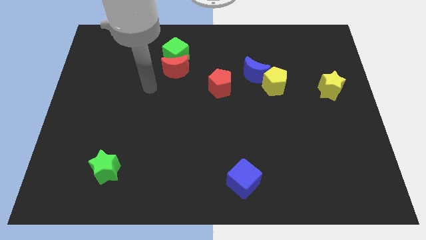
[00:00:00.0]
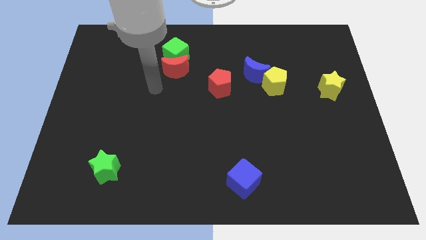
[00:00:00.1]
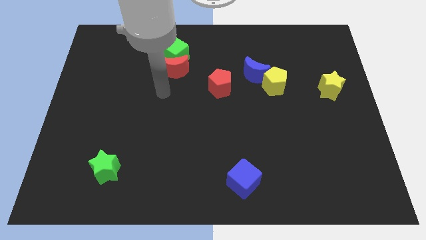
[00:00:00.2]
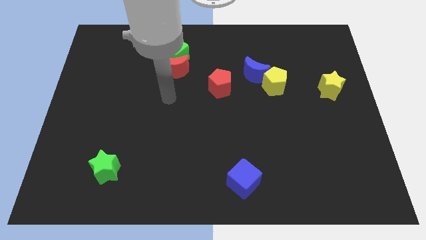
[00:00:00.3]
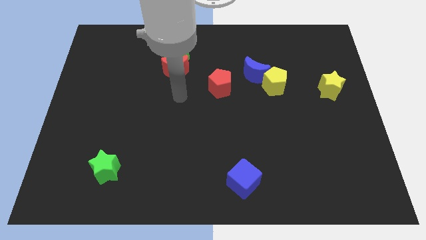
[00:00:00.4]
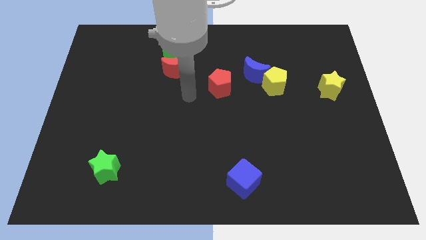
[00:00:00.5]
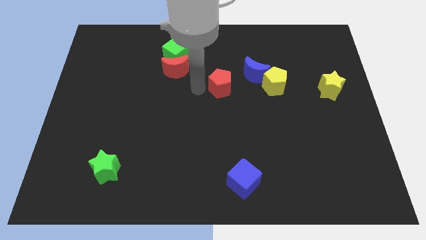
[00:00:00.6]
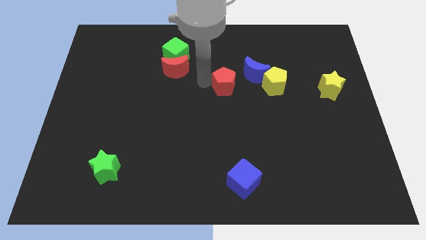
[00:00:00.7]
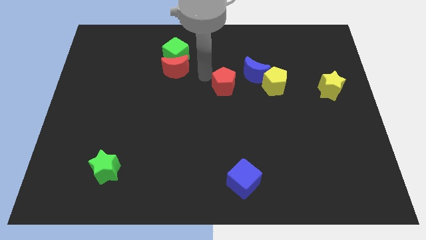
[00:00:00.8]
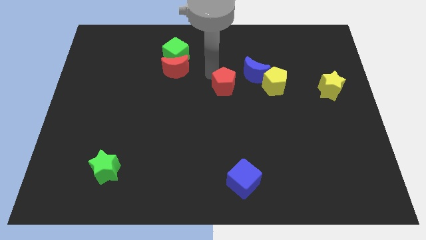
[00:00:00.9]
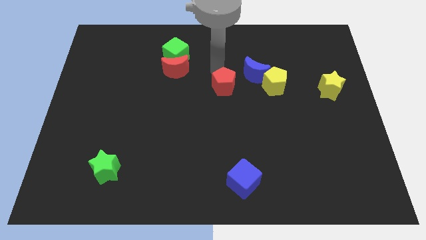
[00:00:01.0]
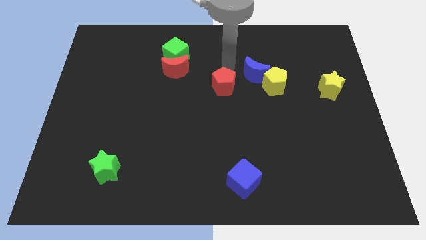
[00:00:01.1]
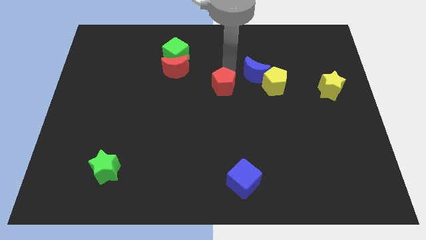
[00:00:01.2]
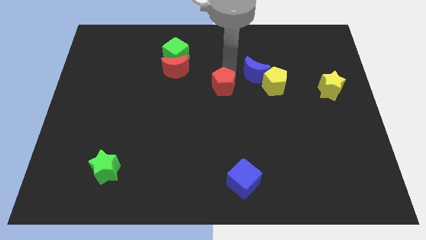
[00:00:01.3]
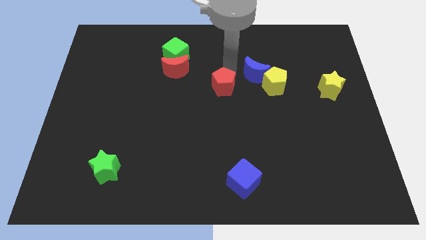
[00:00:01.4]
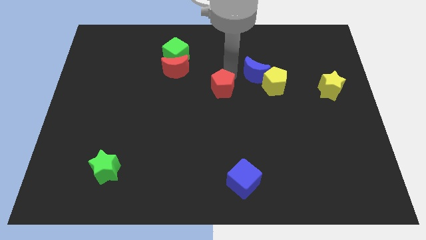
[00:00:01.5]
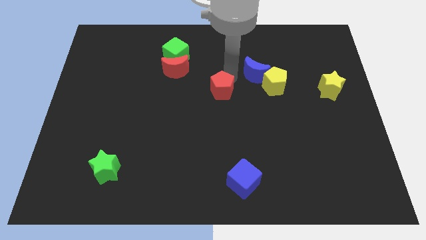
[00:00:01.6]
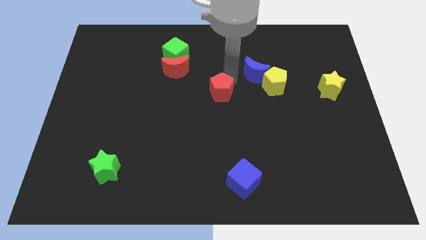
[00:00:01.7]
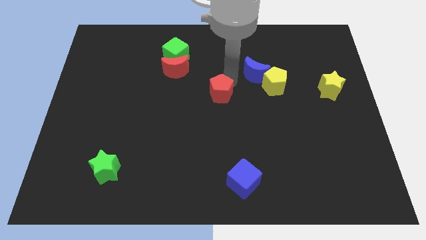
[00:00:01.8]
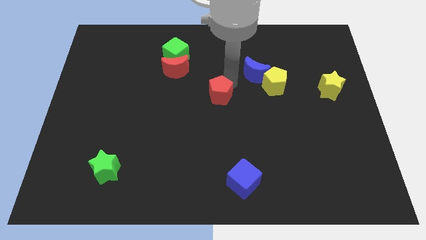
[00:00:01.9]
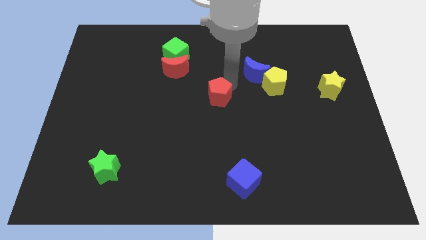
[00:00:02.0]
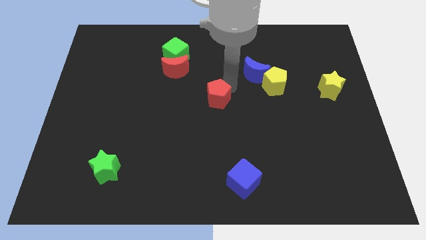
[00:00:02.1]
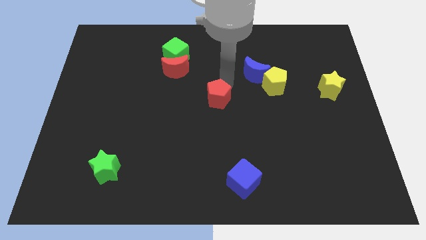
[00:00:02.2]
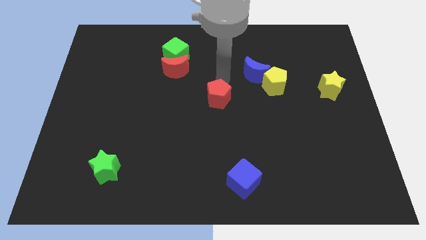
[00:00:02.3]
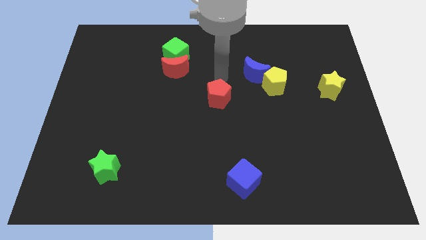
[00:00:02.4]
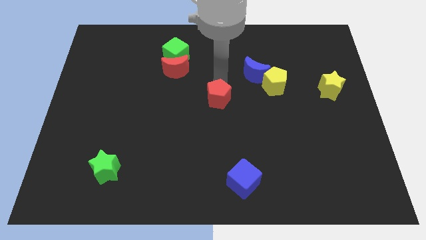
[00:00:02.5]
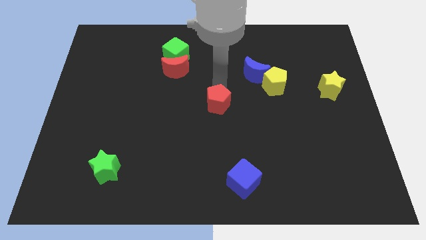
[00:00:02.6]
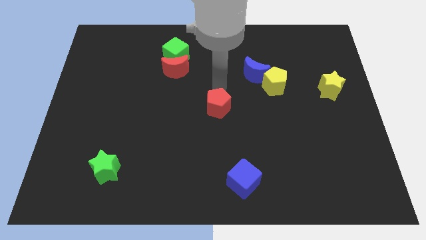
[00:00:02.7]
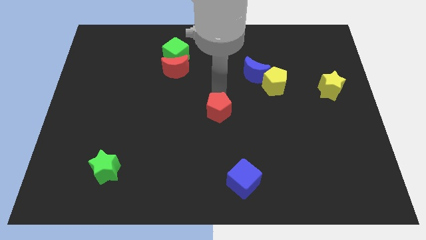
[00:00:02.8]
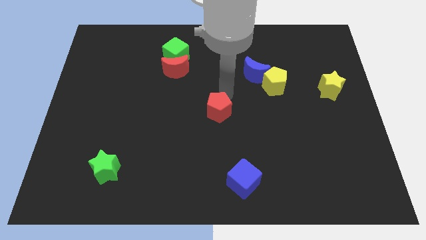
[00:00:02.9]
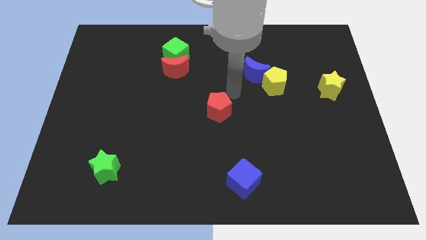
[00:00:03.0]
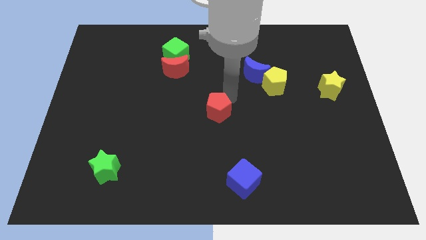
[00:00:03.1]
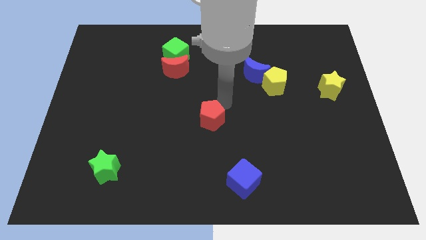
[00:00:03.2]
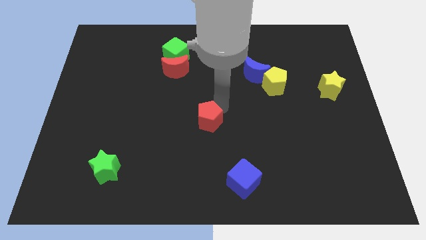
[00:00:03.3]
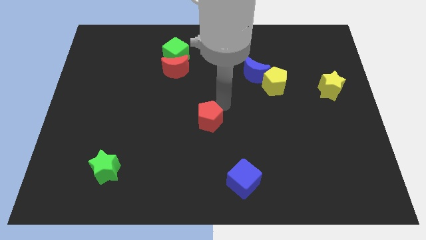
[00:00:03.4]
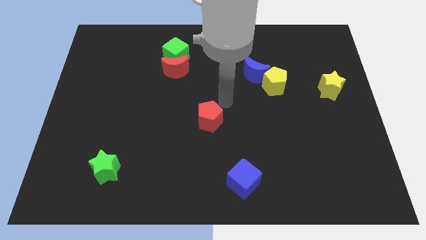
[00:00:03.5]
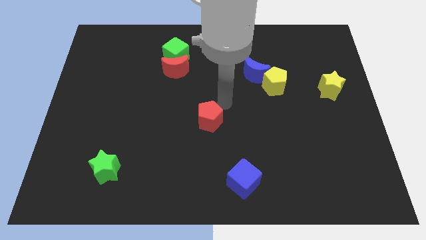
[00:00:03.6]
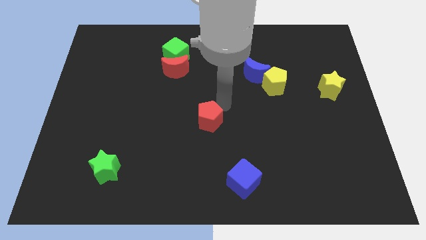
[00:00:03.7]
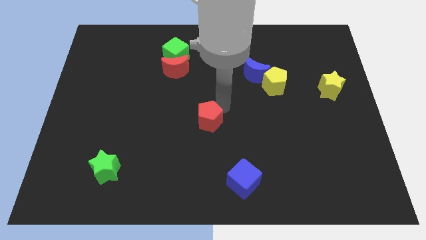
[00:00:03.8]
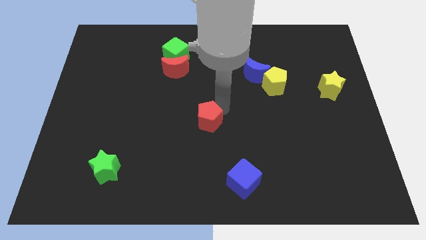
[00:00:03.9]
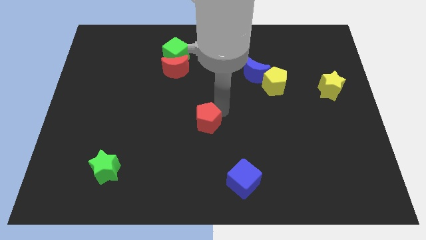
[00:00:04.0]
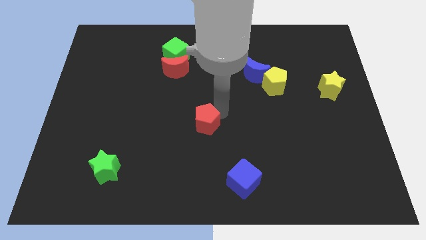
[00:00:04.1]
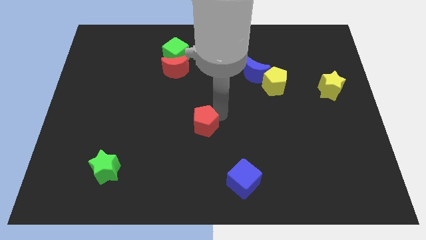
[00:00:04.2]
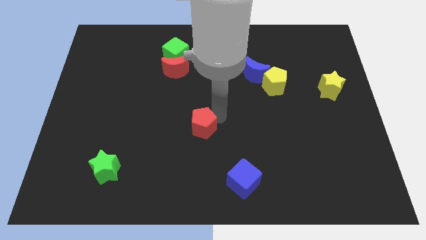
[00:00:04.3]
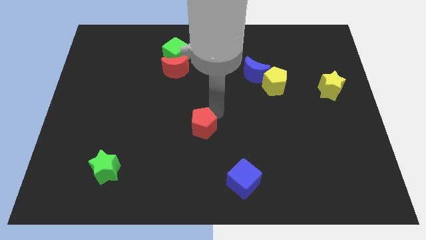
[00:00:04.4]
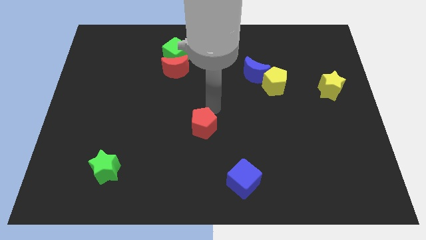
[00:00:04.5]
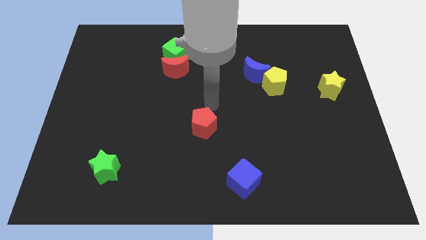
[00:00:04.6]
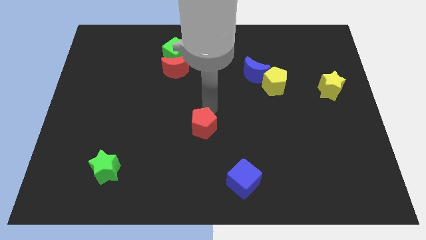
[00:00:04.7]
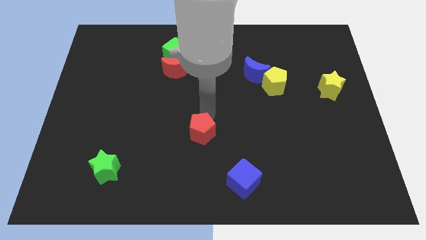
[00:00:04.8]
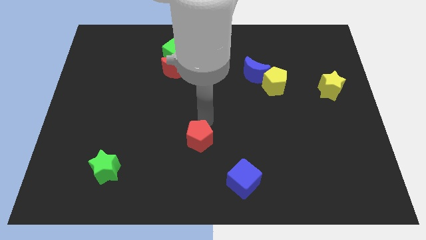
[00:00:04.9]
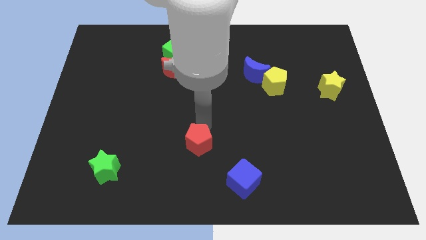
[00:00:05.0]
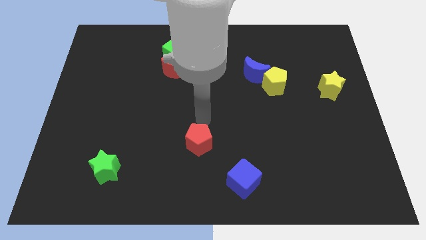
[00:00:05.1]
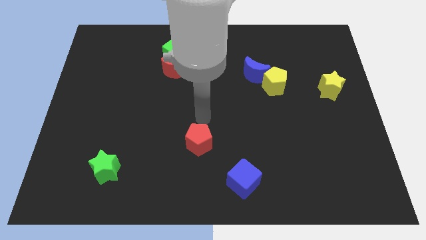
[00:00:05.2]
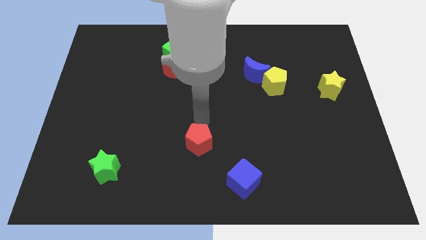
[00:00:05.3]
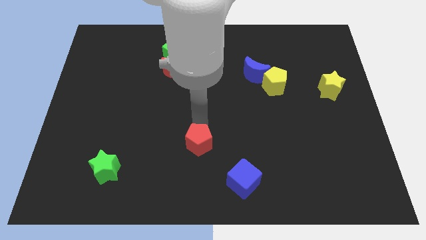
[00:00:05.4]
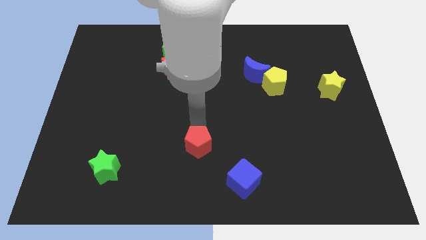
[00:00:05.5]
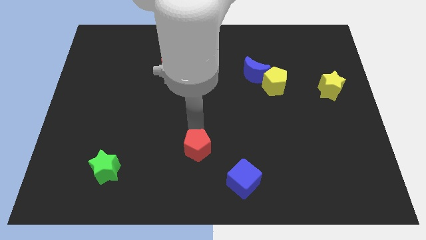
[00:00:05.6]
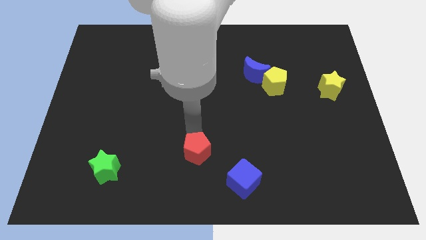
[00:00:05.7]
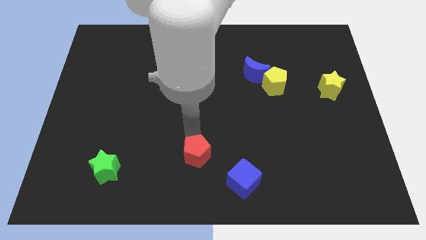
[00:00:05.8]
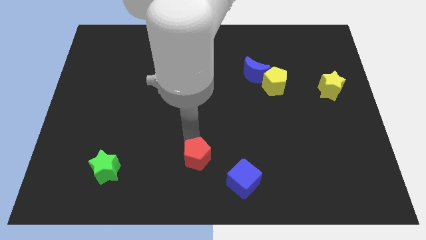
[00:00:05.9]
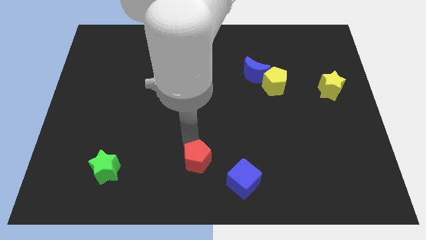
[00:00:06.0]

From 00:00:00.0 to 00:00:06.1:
slide the red pentagon to the left of the blue cube

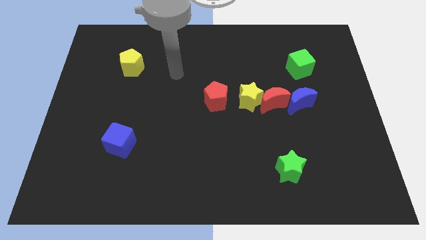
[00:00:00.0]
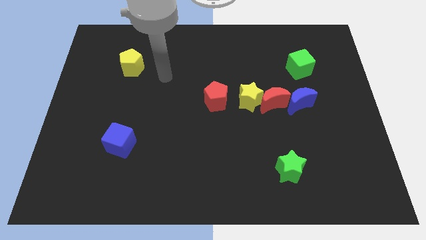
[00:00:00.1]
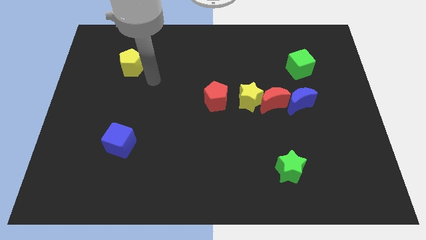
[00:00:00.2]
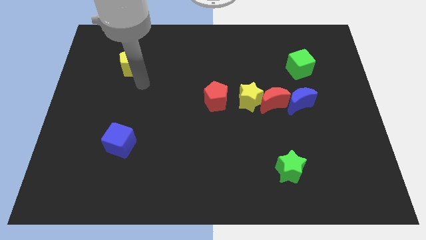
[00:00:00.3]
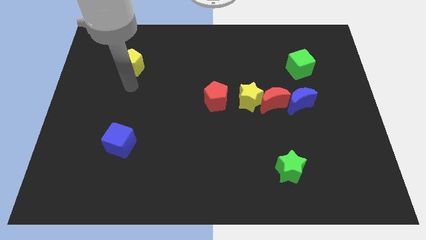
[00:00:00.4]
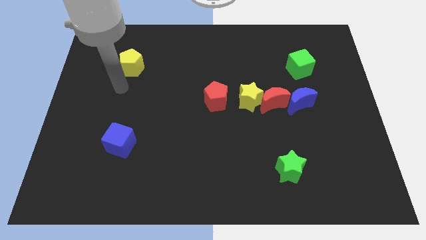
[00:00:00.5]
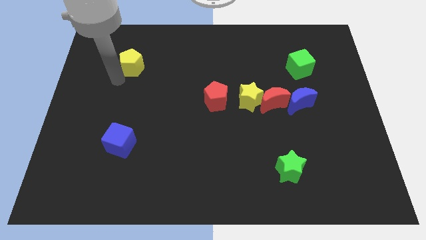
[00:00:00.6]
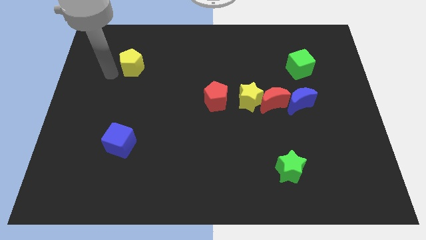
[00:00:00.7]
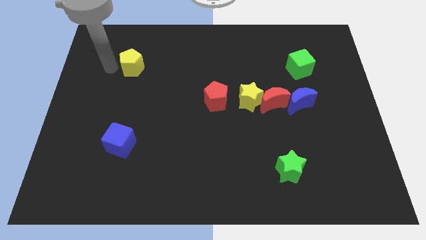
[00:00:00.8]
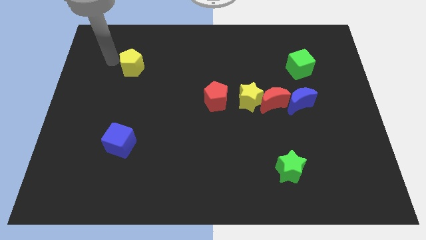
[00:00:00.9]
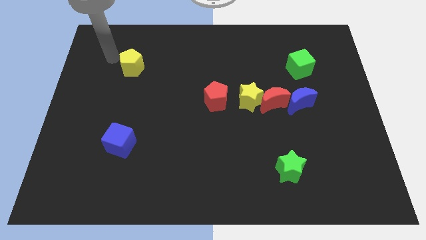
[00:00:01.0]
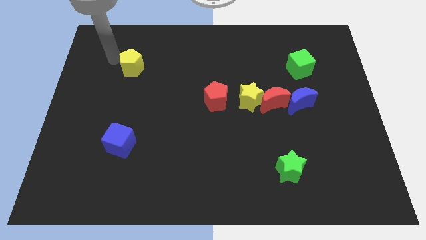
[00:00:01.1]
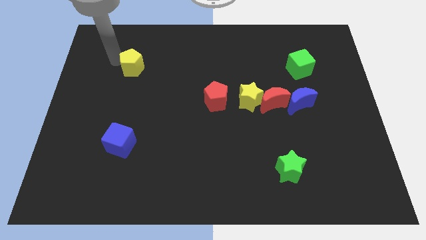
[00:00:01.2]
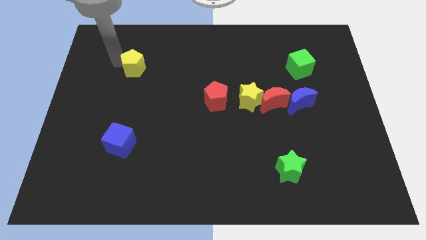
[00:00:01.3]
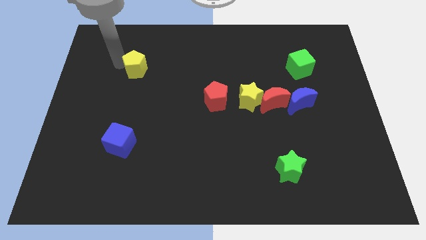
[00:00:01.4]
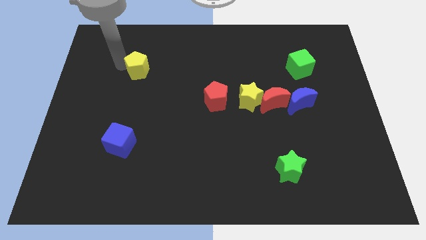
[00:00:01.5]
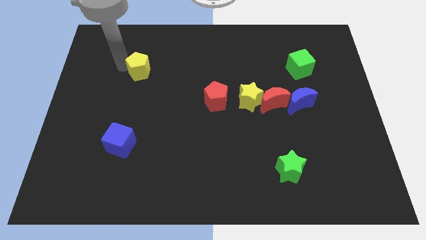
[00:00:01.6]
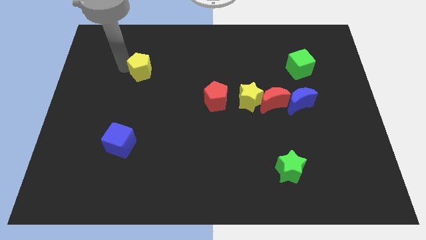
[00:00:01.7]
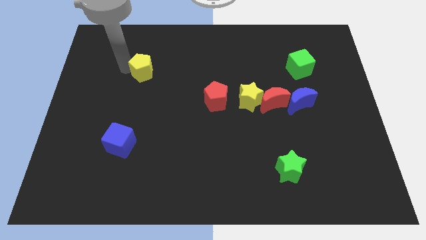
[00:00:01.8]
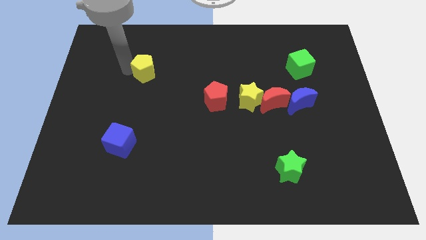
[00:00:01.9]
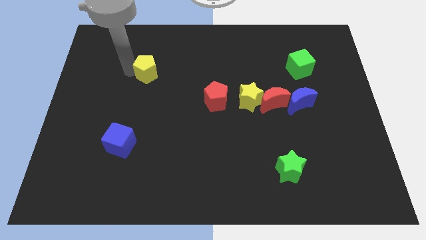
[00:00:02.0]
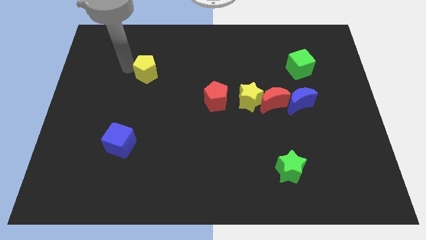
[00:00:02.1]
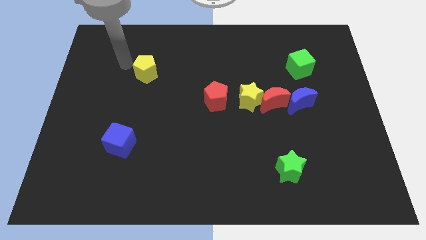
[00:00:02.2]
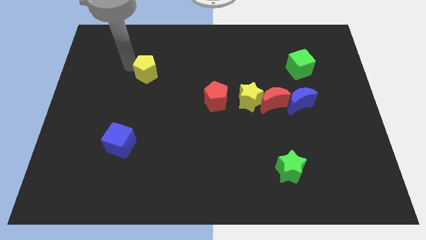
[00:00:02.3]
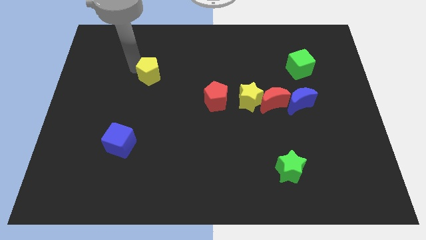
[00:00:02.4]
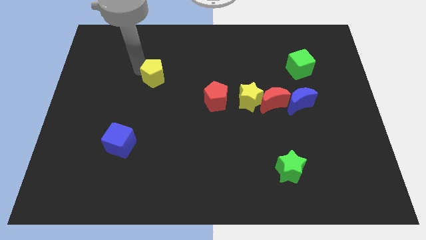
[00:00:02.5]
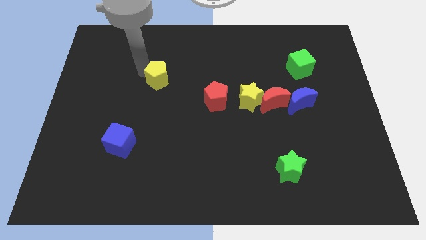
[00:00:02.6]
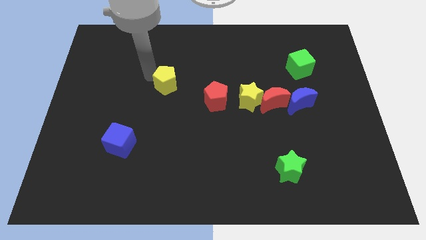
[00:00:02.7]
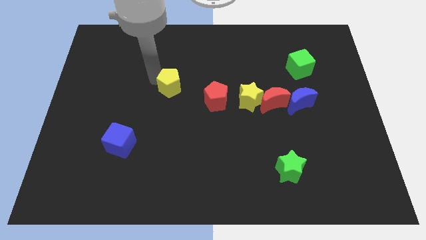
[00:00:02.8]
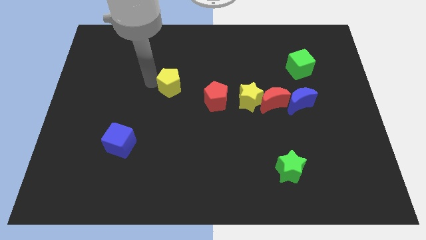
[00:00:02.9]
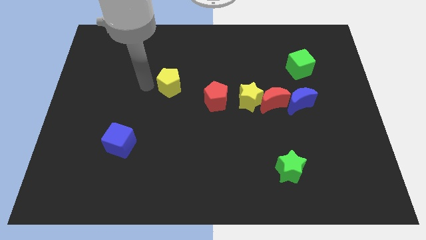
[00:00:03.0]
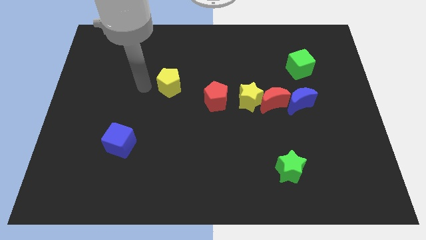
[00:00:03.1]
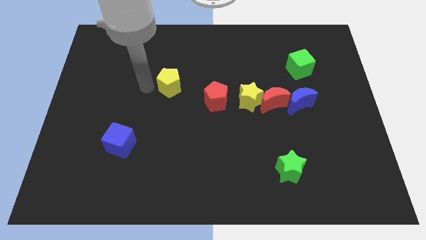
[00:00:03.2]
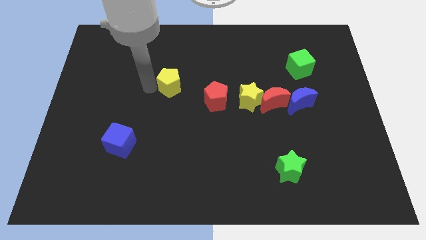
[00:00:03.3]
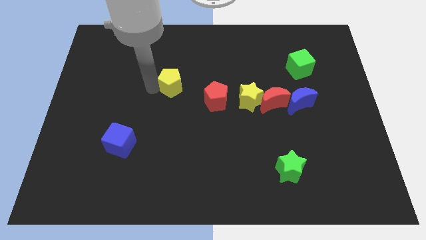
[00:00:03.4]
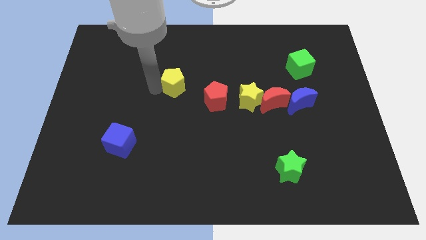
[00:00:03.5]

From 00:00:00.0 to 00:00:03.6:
put the yellow pentagon to the top left of the red pentagon
